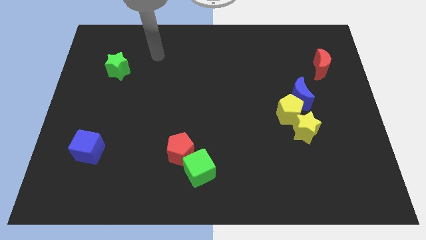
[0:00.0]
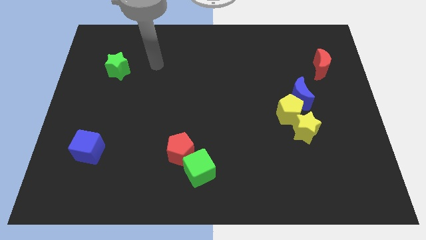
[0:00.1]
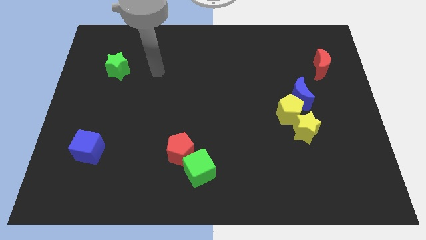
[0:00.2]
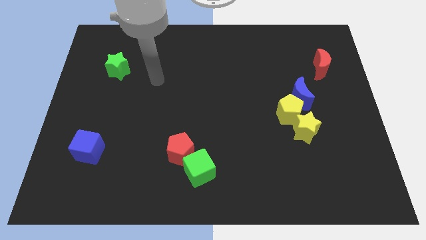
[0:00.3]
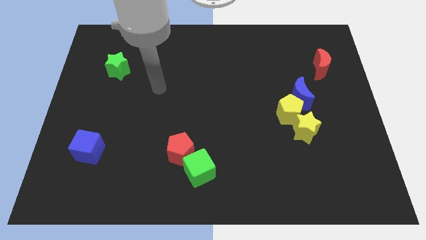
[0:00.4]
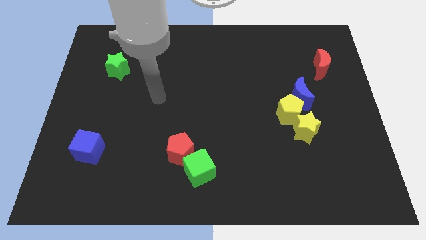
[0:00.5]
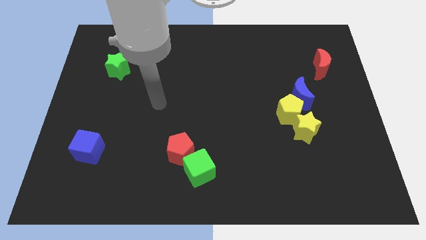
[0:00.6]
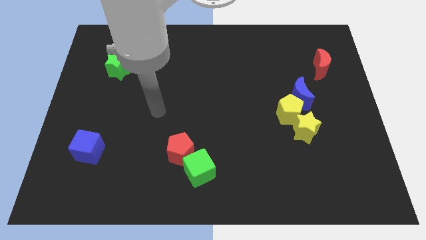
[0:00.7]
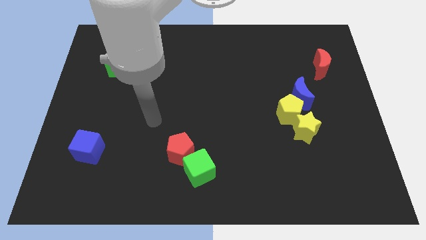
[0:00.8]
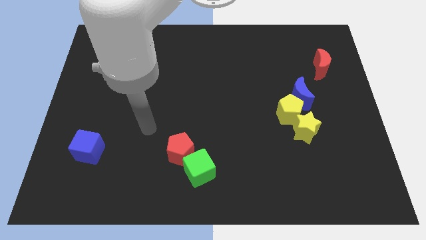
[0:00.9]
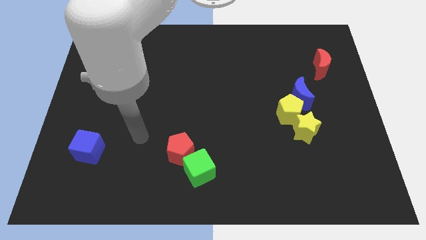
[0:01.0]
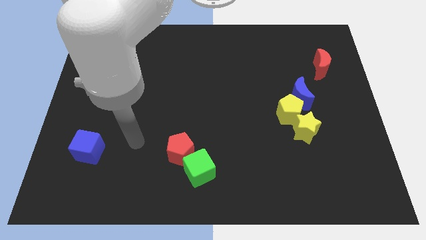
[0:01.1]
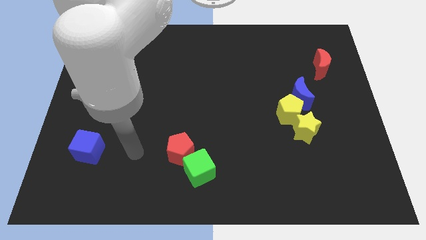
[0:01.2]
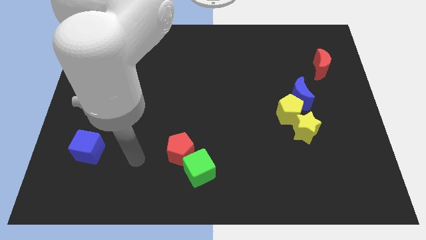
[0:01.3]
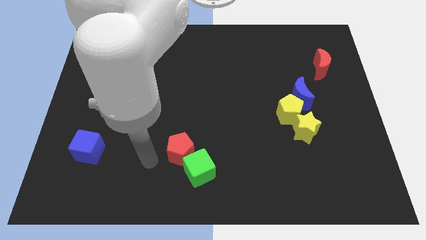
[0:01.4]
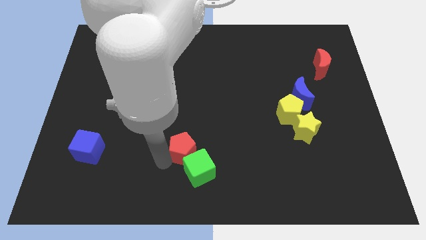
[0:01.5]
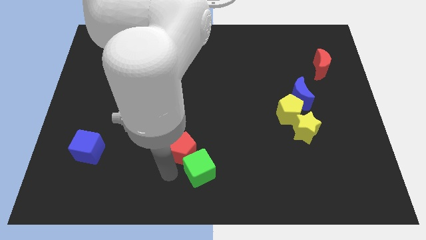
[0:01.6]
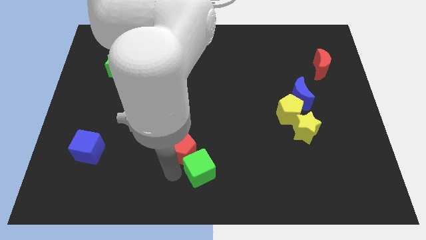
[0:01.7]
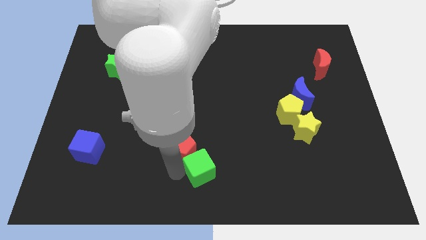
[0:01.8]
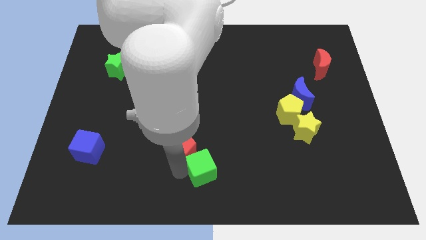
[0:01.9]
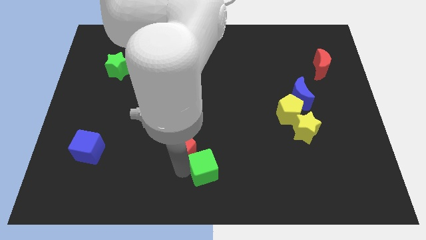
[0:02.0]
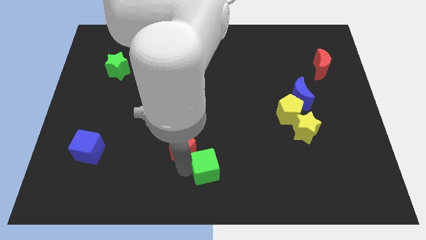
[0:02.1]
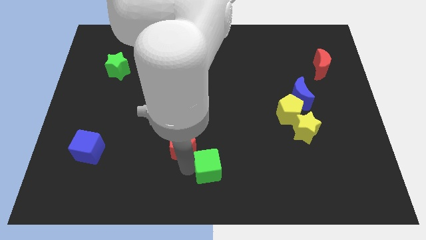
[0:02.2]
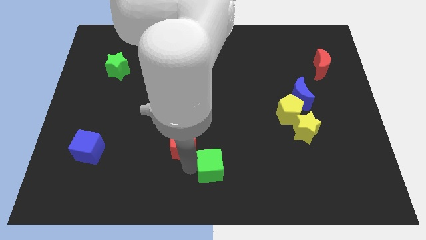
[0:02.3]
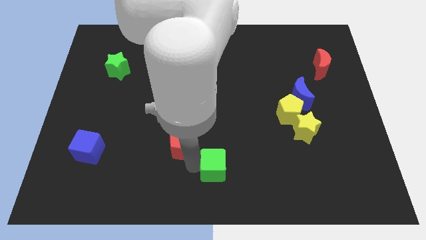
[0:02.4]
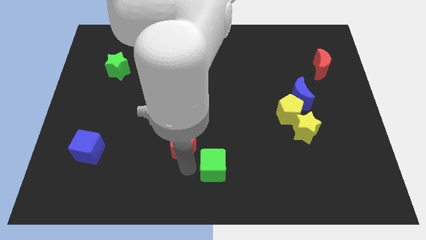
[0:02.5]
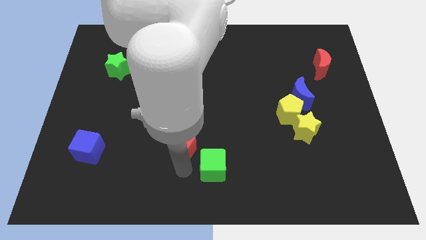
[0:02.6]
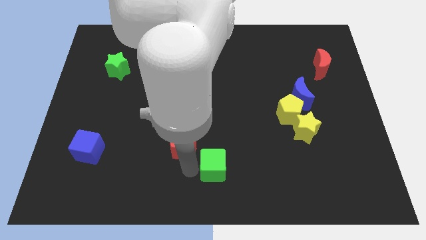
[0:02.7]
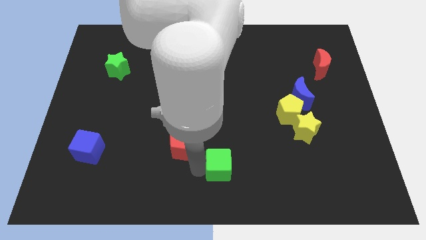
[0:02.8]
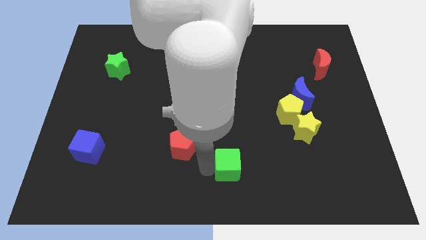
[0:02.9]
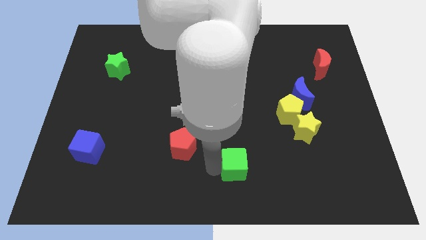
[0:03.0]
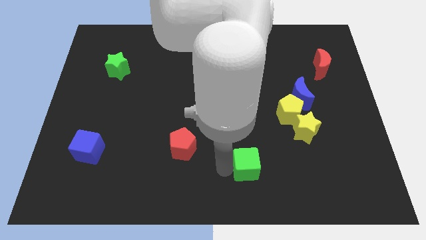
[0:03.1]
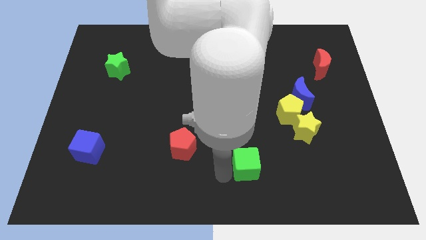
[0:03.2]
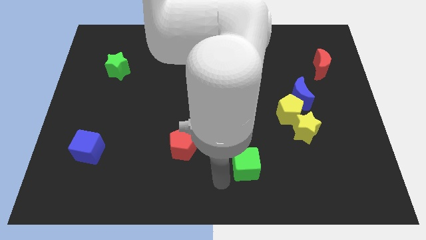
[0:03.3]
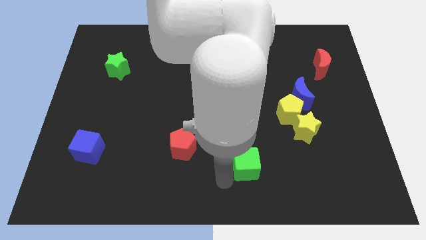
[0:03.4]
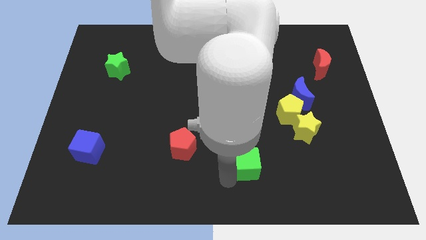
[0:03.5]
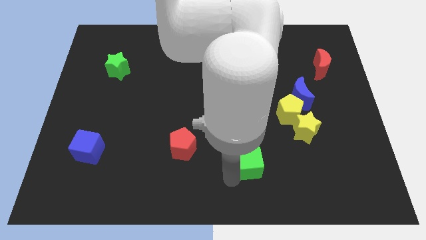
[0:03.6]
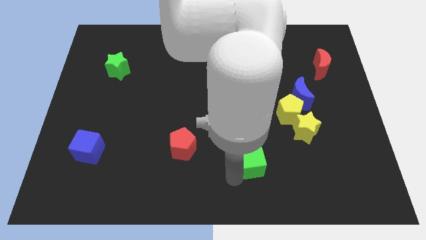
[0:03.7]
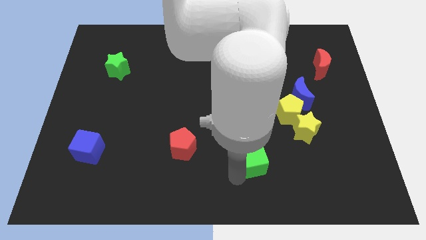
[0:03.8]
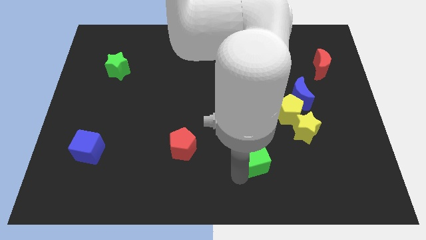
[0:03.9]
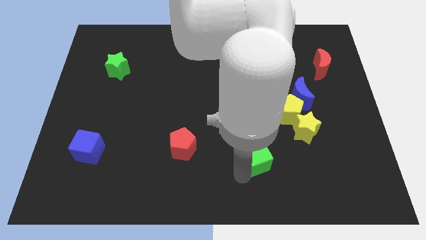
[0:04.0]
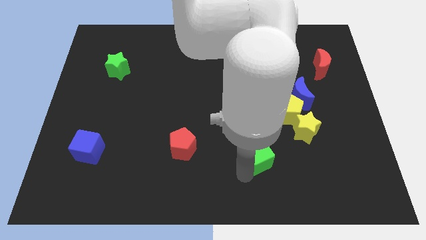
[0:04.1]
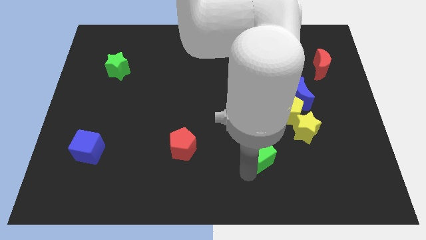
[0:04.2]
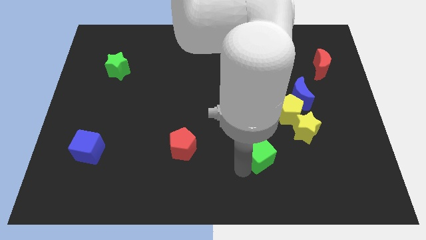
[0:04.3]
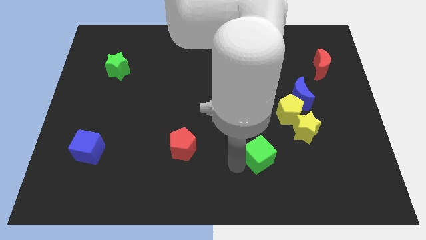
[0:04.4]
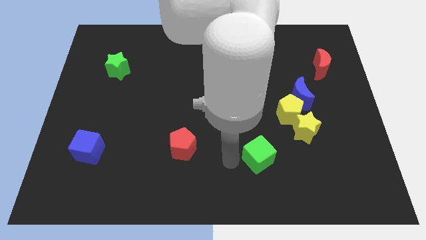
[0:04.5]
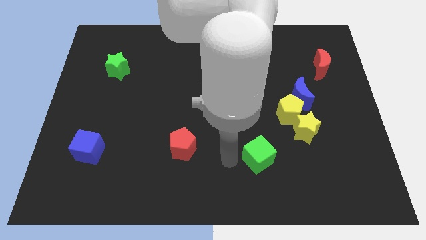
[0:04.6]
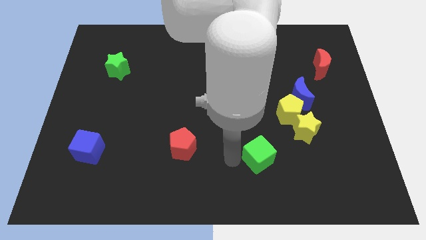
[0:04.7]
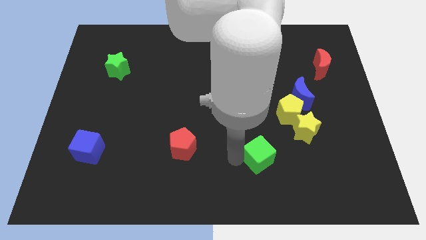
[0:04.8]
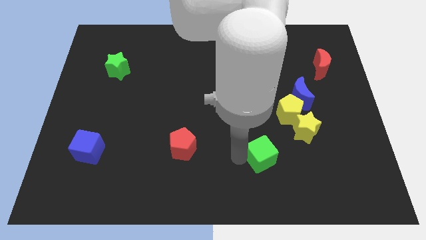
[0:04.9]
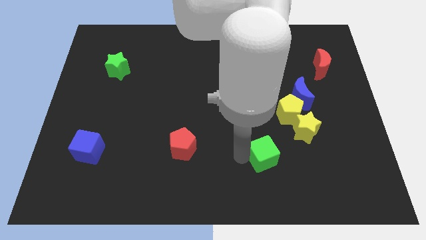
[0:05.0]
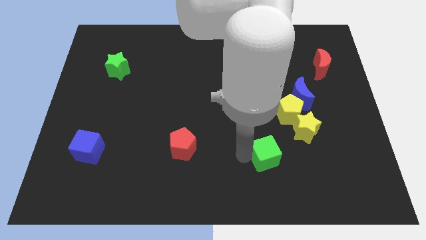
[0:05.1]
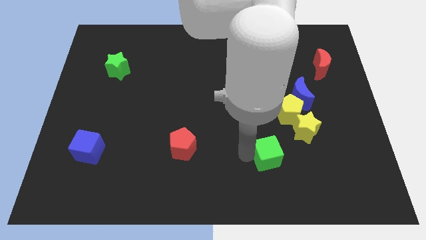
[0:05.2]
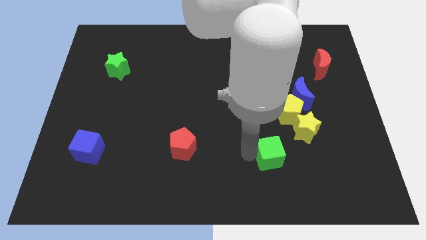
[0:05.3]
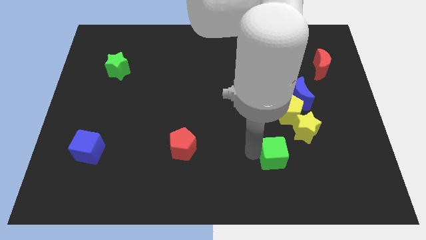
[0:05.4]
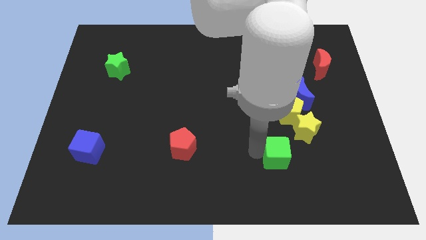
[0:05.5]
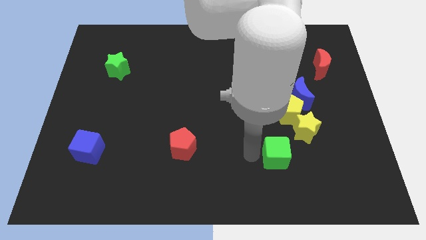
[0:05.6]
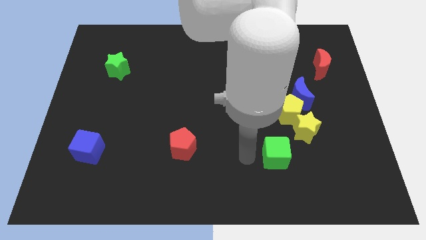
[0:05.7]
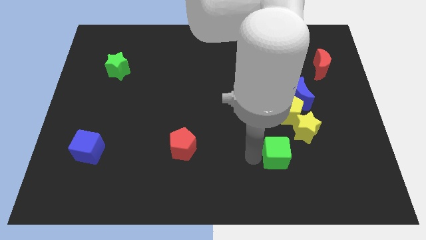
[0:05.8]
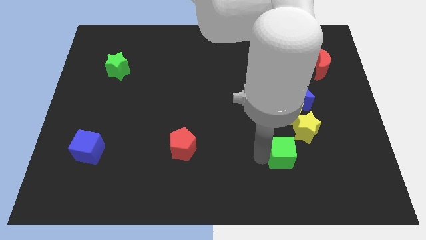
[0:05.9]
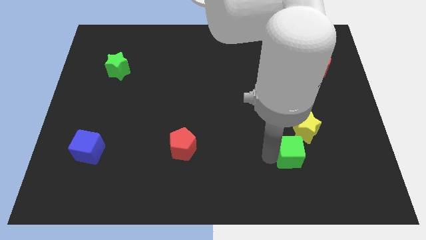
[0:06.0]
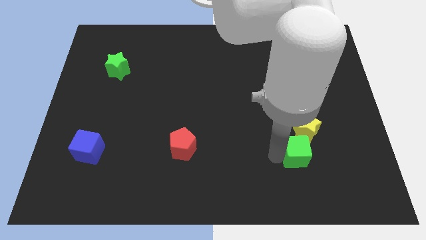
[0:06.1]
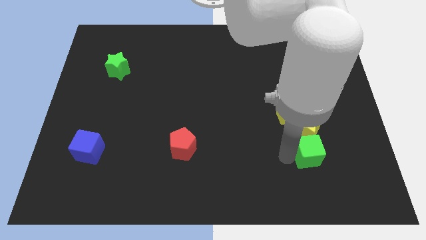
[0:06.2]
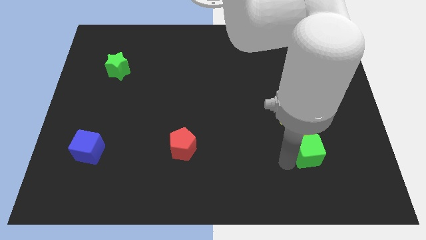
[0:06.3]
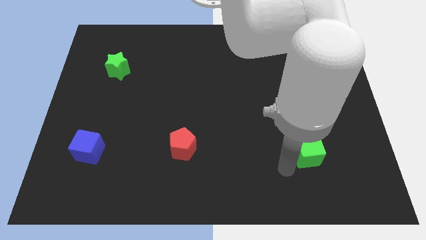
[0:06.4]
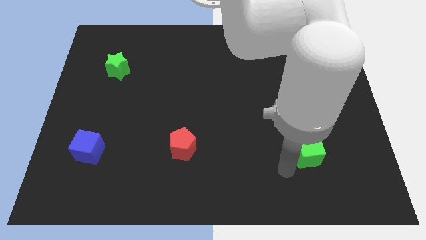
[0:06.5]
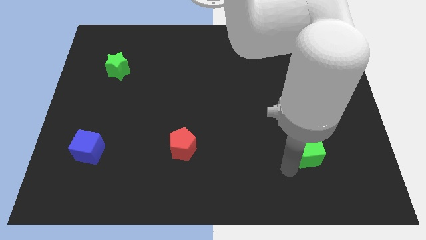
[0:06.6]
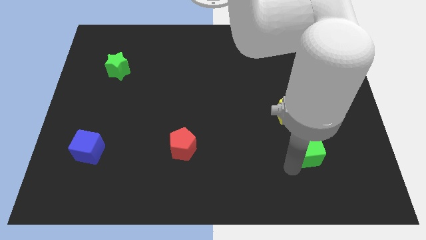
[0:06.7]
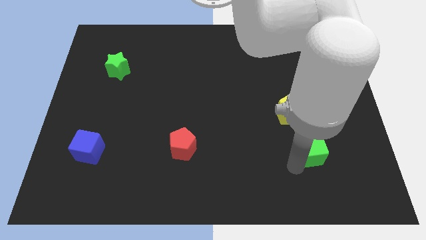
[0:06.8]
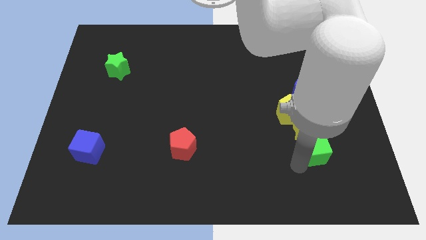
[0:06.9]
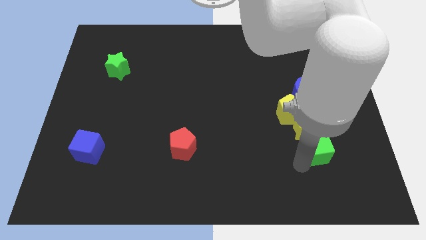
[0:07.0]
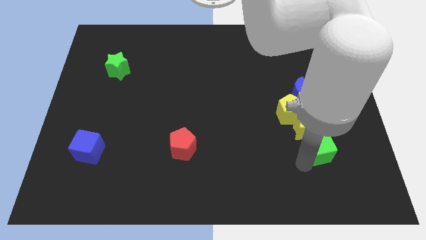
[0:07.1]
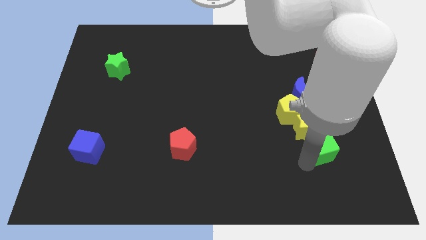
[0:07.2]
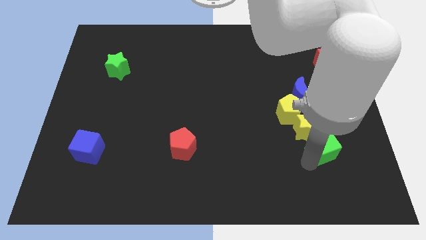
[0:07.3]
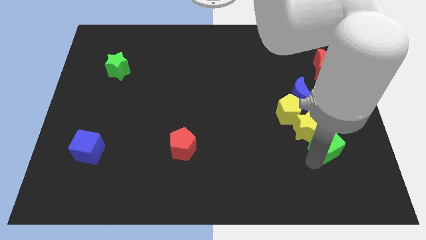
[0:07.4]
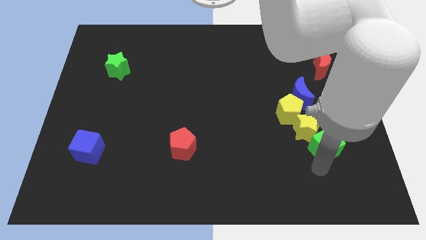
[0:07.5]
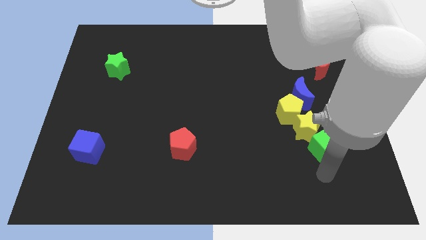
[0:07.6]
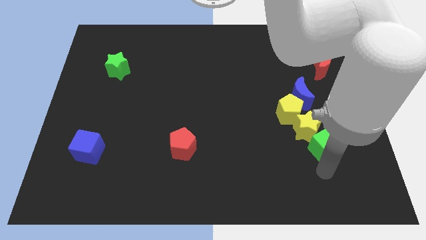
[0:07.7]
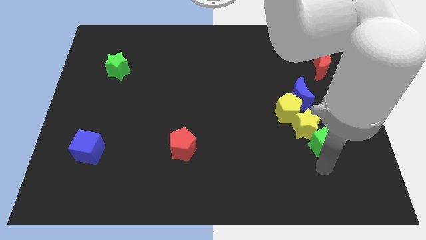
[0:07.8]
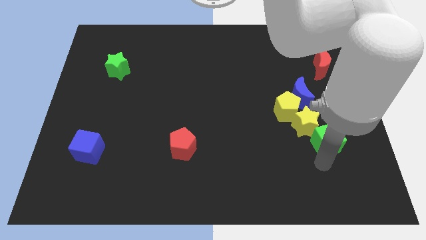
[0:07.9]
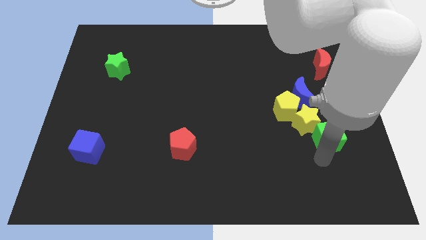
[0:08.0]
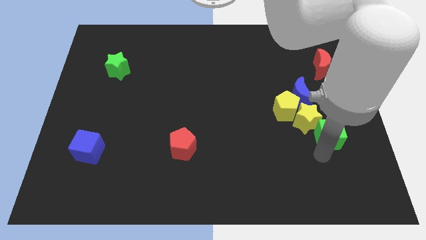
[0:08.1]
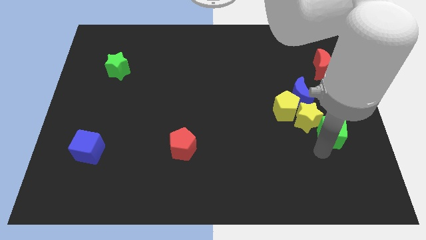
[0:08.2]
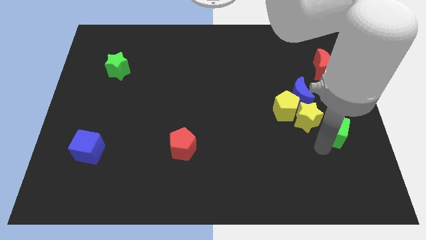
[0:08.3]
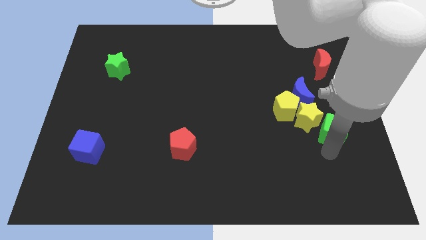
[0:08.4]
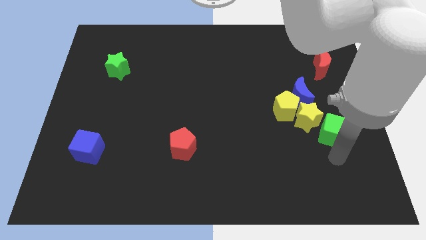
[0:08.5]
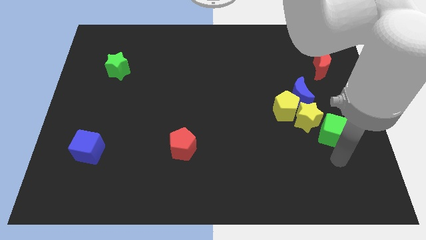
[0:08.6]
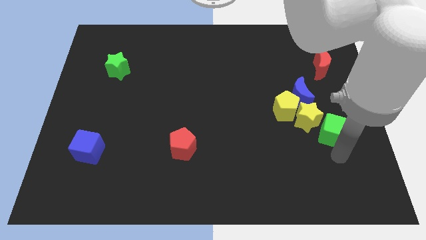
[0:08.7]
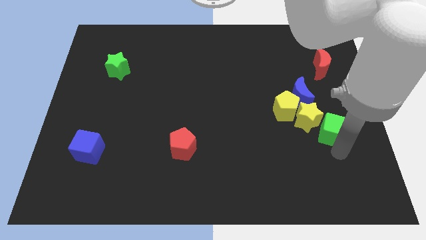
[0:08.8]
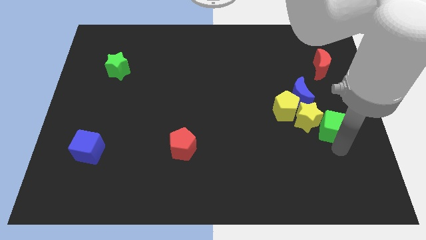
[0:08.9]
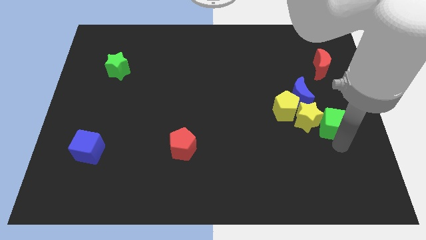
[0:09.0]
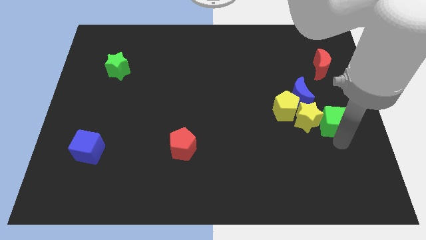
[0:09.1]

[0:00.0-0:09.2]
slide the green cube to the top right of the yellow star
